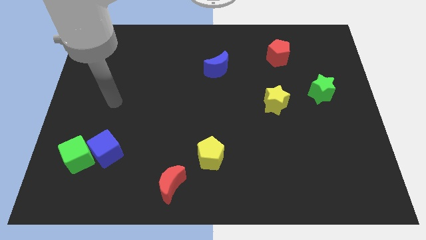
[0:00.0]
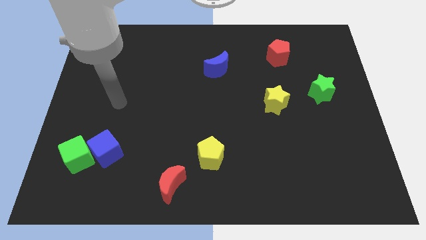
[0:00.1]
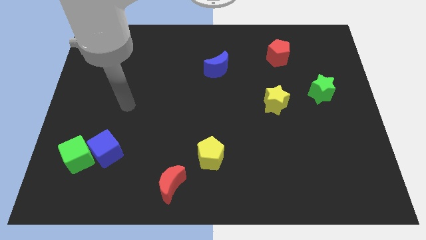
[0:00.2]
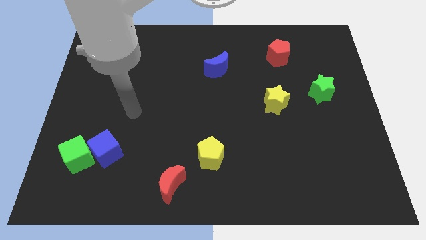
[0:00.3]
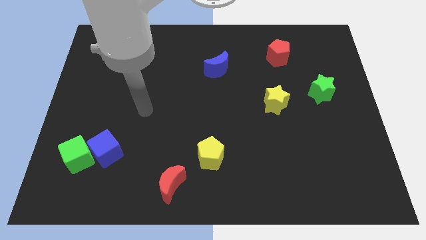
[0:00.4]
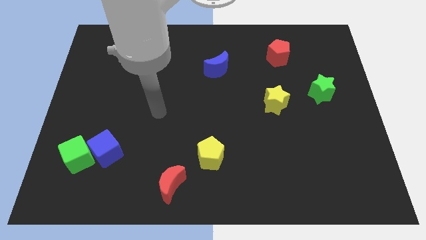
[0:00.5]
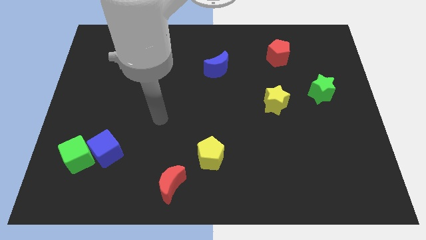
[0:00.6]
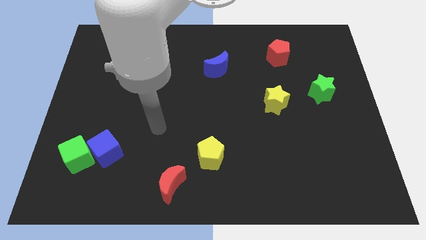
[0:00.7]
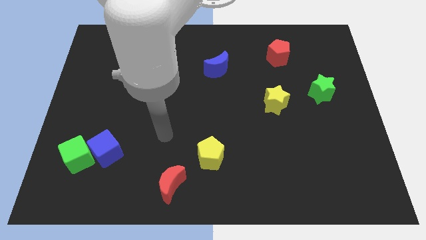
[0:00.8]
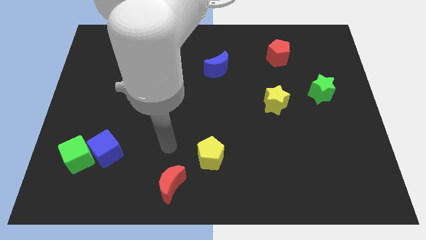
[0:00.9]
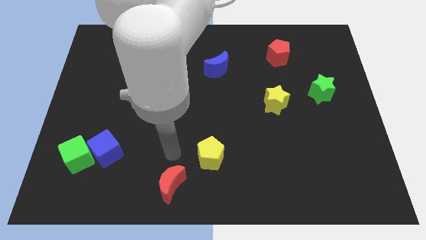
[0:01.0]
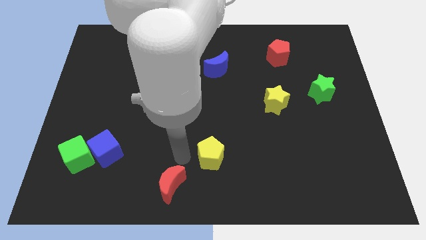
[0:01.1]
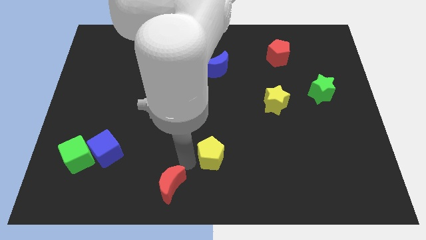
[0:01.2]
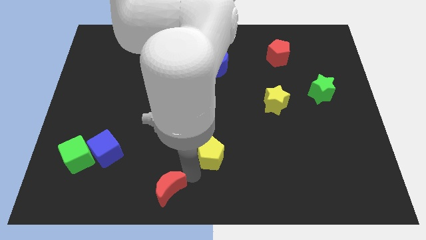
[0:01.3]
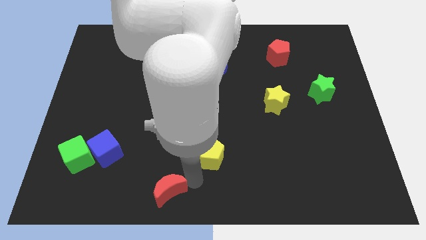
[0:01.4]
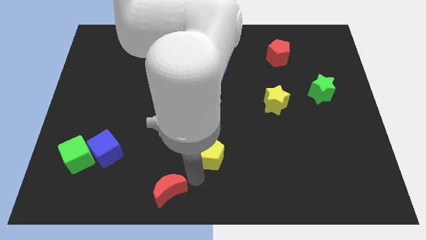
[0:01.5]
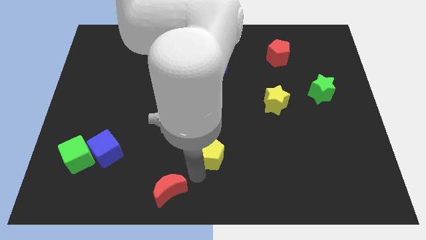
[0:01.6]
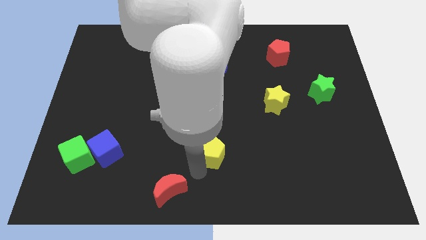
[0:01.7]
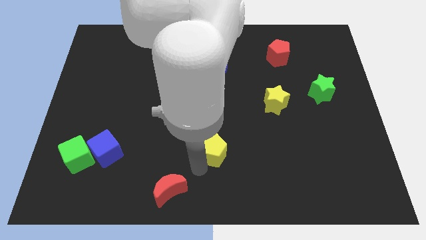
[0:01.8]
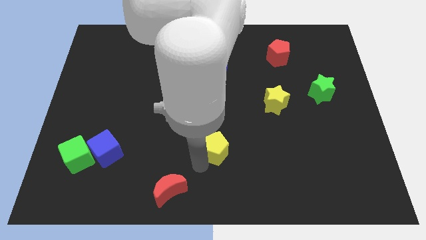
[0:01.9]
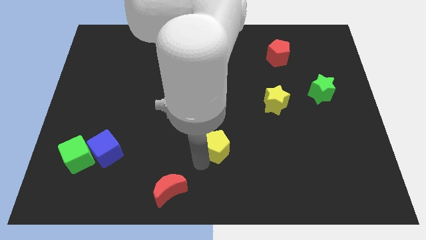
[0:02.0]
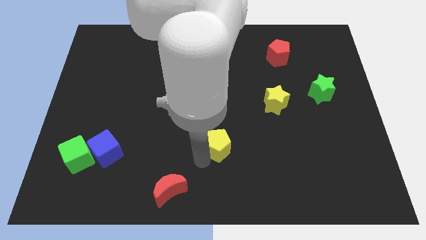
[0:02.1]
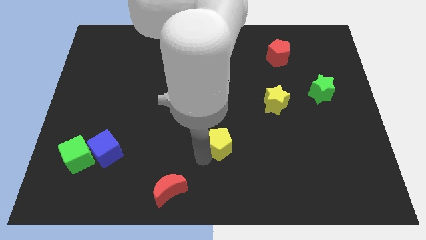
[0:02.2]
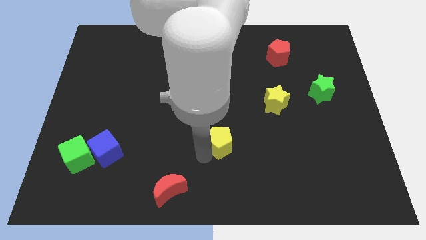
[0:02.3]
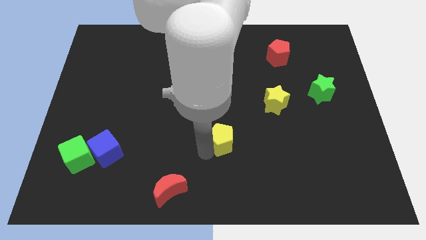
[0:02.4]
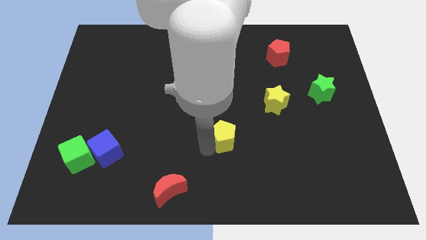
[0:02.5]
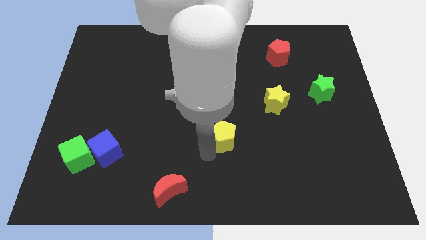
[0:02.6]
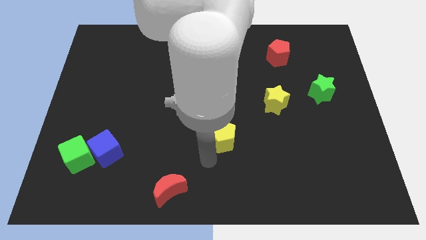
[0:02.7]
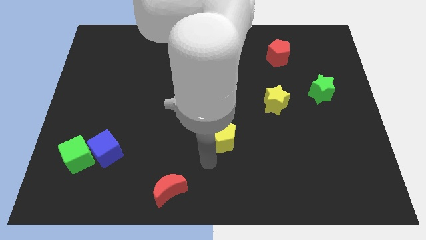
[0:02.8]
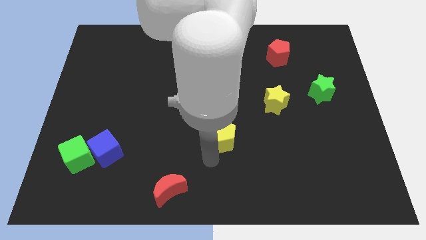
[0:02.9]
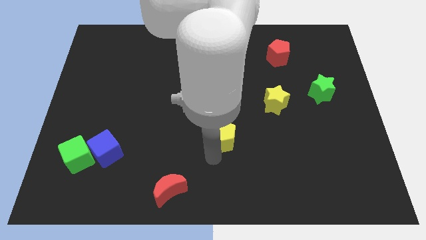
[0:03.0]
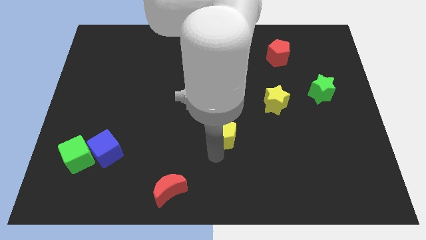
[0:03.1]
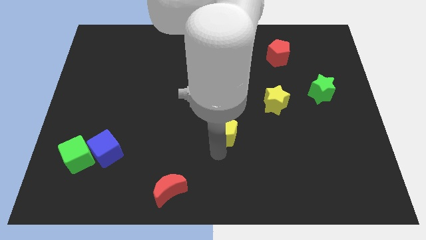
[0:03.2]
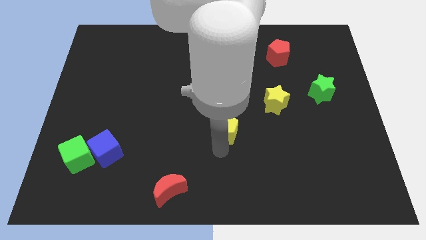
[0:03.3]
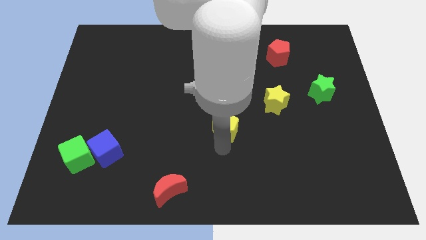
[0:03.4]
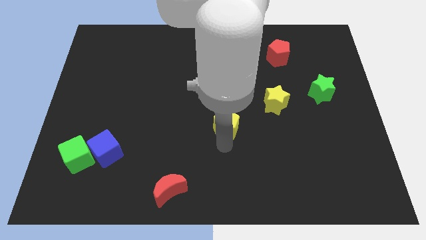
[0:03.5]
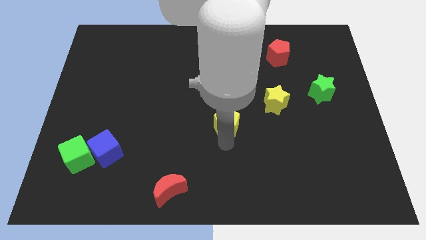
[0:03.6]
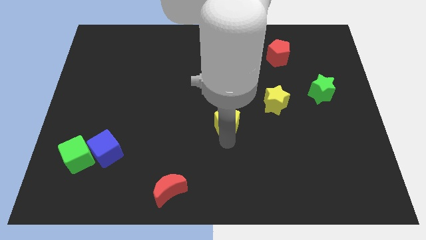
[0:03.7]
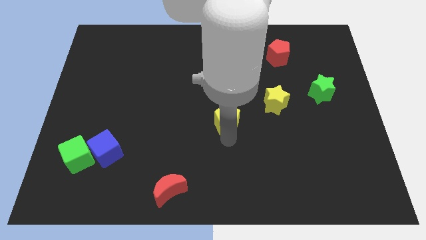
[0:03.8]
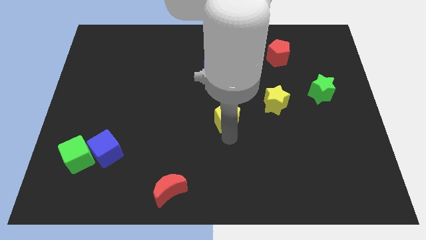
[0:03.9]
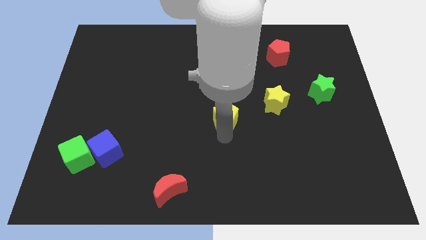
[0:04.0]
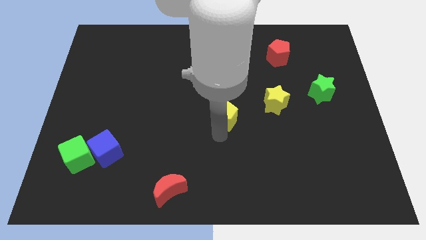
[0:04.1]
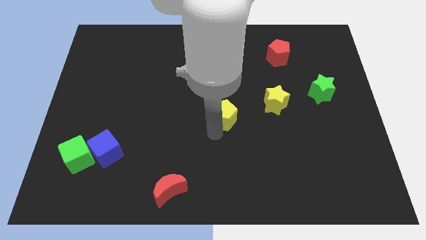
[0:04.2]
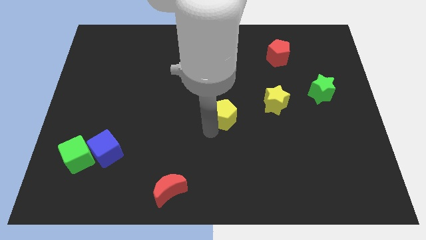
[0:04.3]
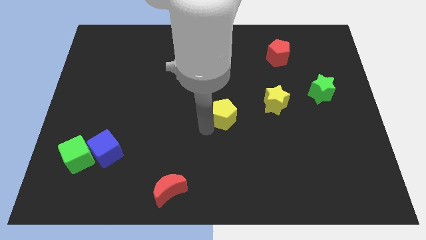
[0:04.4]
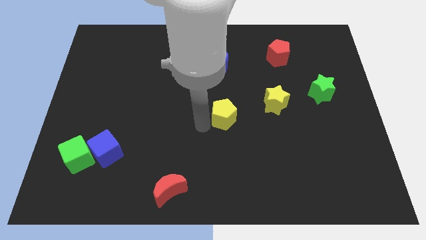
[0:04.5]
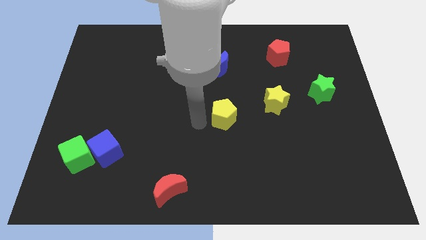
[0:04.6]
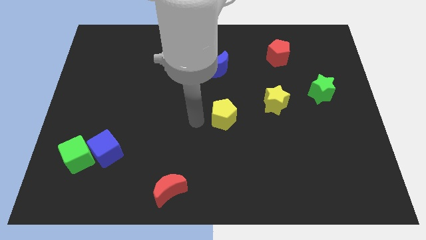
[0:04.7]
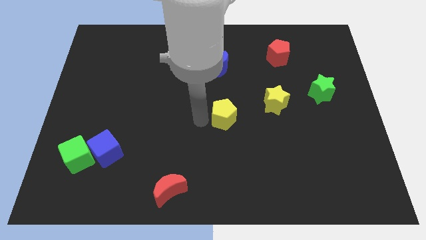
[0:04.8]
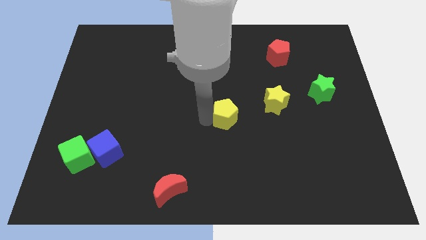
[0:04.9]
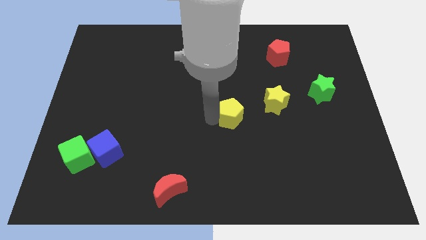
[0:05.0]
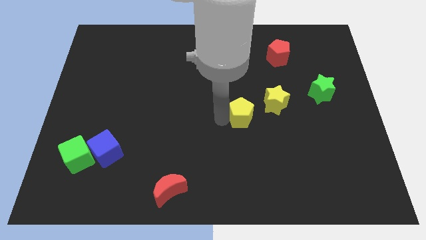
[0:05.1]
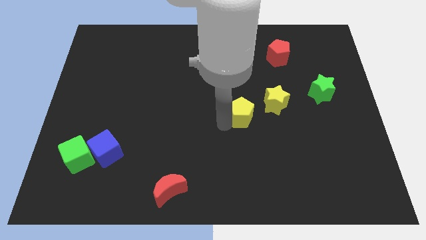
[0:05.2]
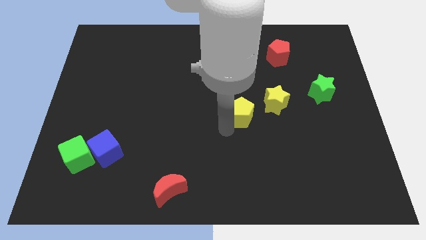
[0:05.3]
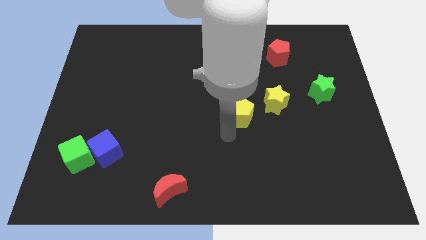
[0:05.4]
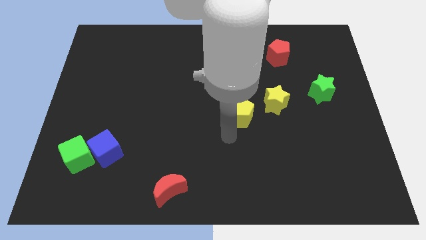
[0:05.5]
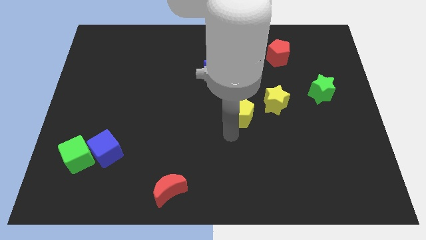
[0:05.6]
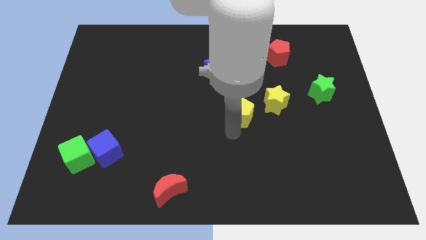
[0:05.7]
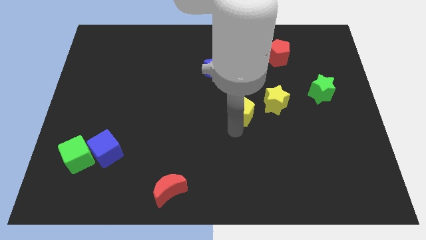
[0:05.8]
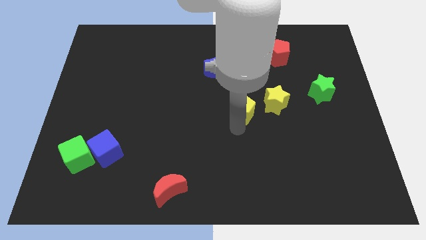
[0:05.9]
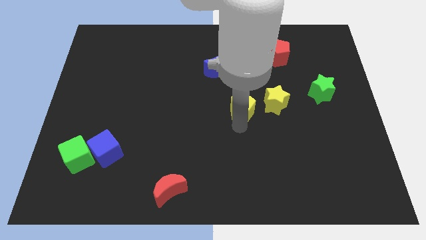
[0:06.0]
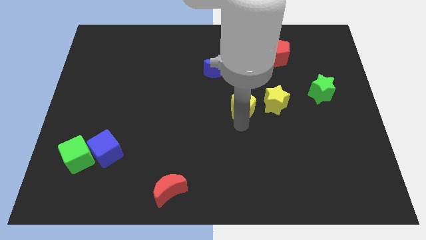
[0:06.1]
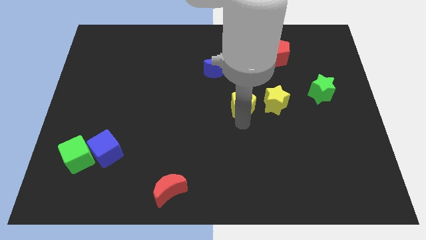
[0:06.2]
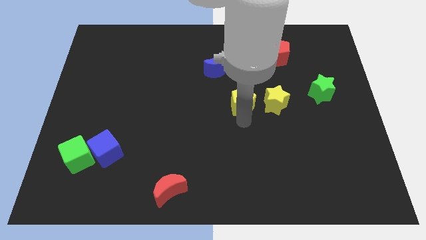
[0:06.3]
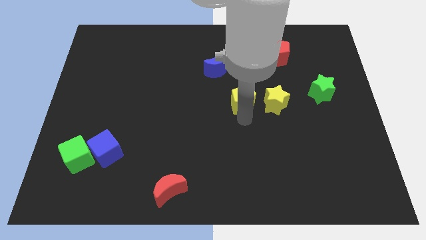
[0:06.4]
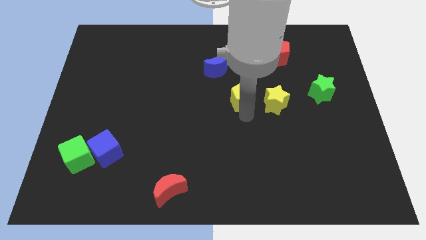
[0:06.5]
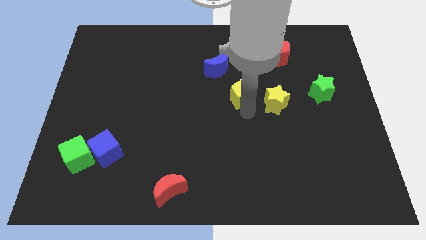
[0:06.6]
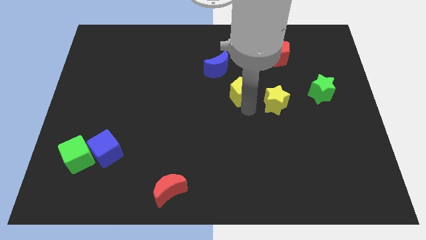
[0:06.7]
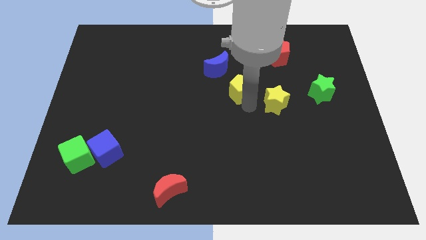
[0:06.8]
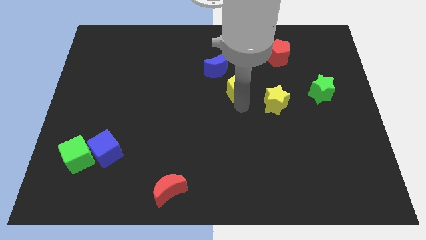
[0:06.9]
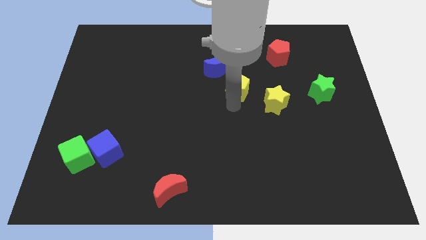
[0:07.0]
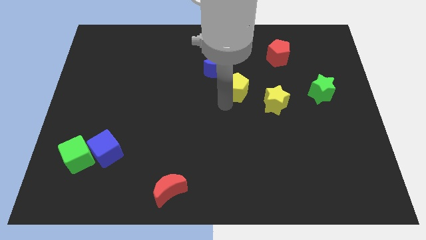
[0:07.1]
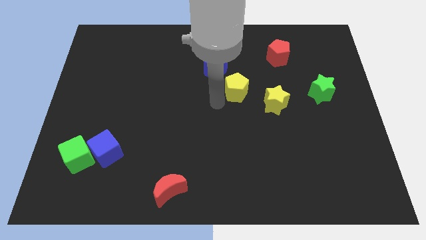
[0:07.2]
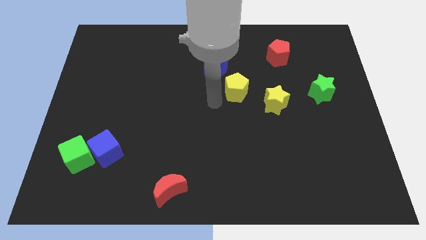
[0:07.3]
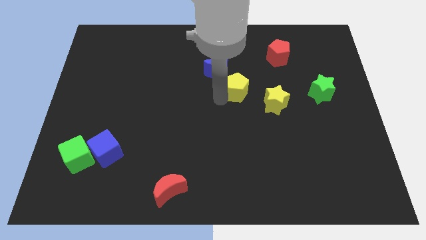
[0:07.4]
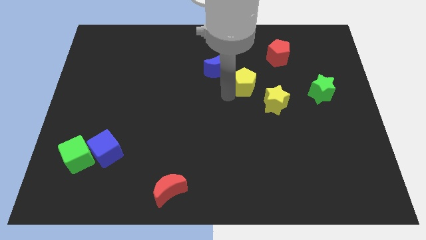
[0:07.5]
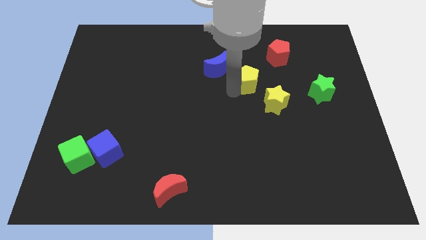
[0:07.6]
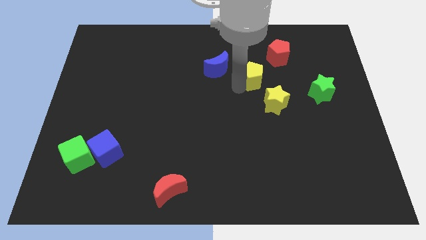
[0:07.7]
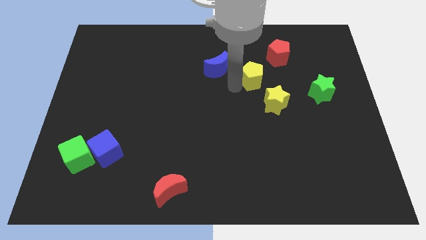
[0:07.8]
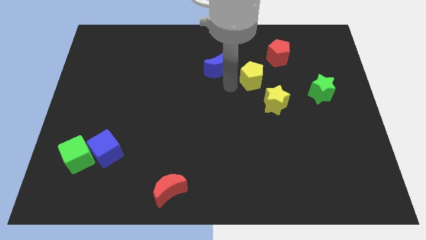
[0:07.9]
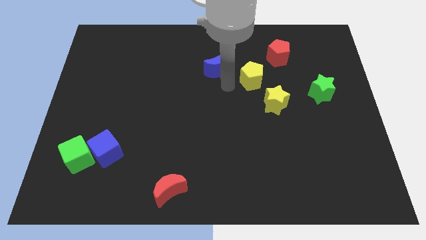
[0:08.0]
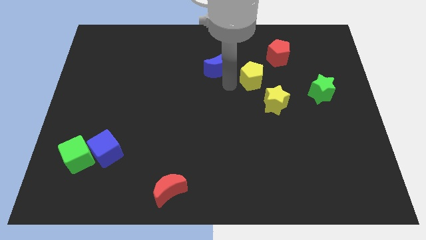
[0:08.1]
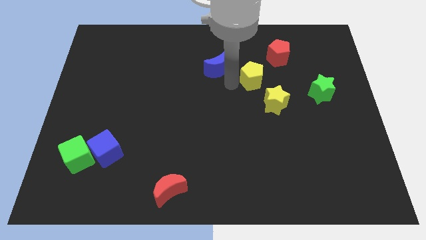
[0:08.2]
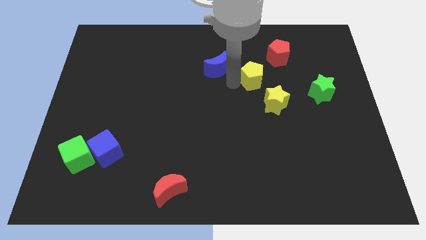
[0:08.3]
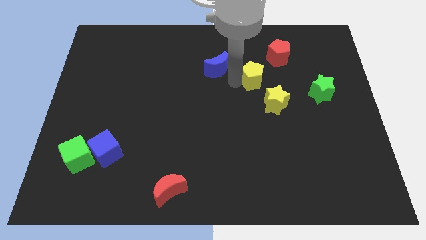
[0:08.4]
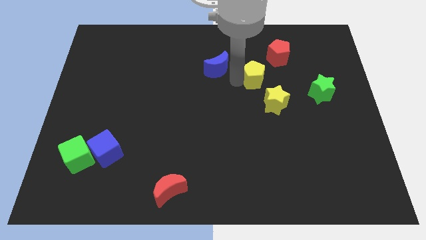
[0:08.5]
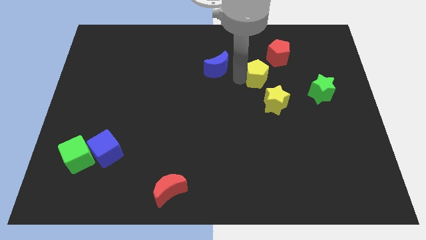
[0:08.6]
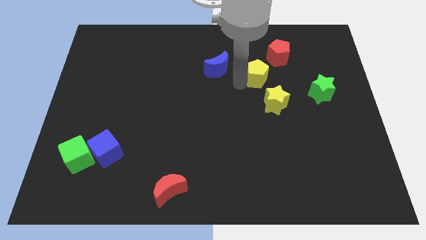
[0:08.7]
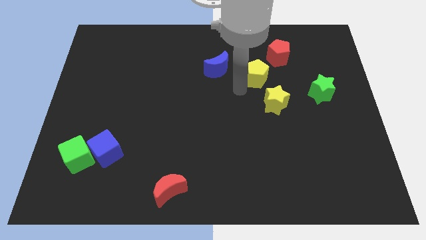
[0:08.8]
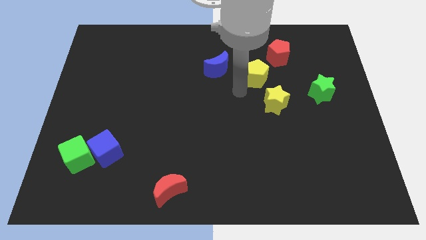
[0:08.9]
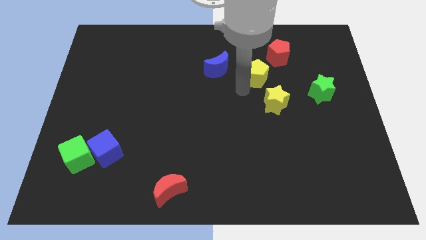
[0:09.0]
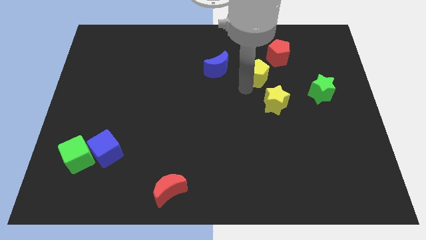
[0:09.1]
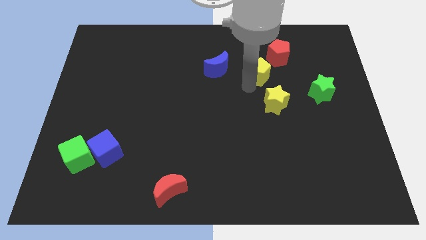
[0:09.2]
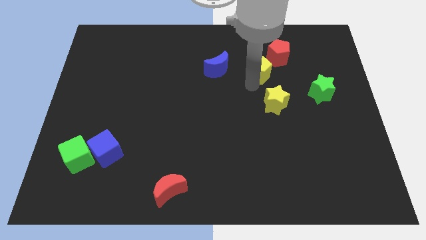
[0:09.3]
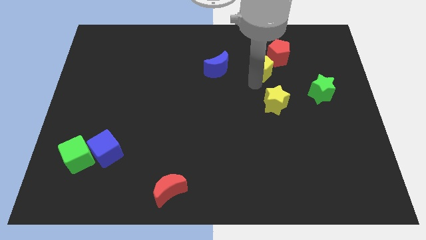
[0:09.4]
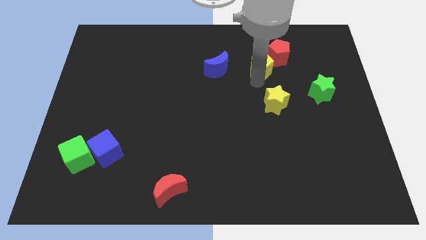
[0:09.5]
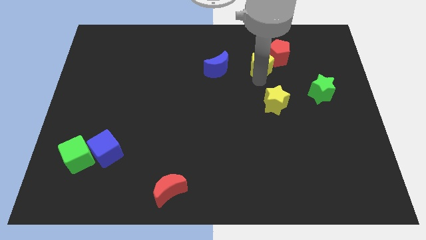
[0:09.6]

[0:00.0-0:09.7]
push the yellow pentagon to the red pentagon
